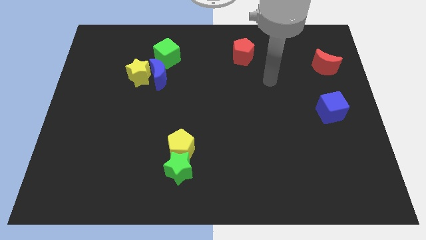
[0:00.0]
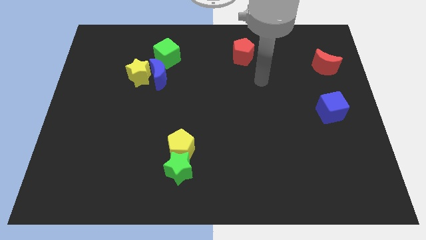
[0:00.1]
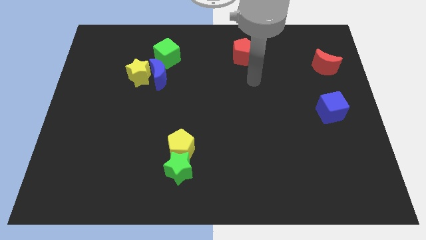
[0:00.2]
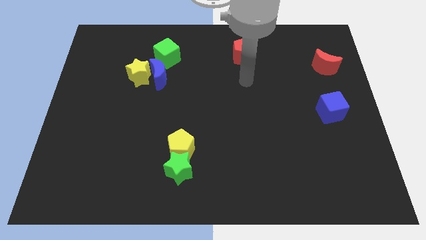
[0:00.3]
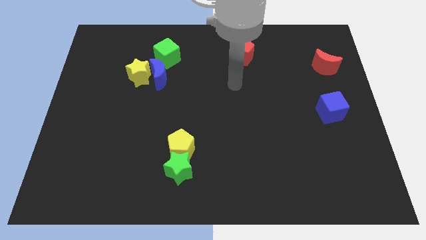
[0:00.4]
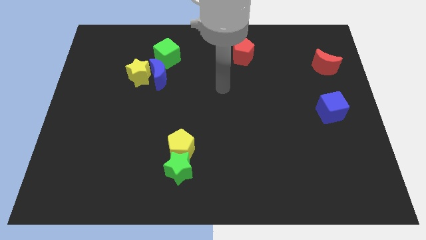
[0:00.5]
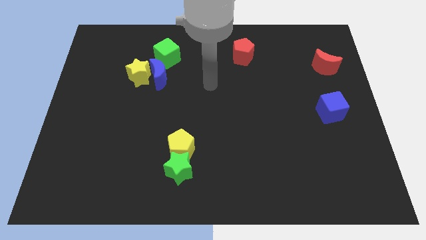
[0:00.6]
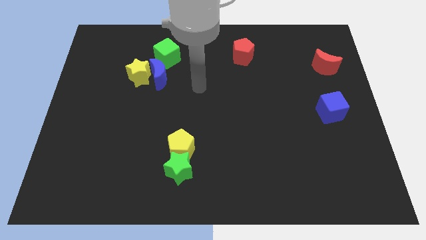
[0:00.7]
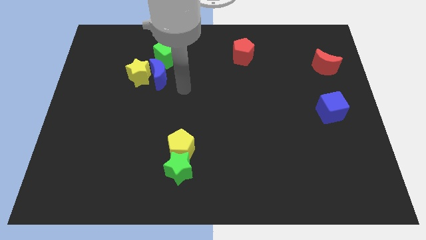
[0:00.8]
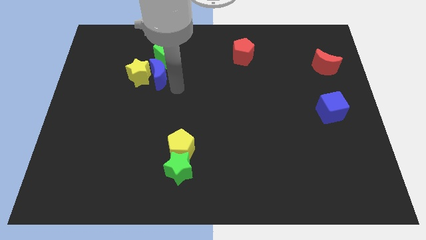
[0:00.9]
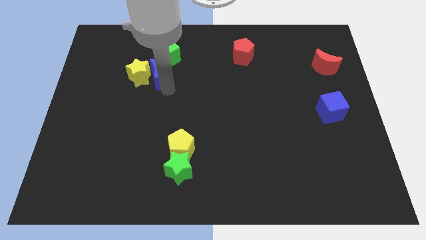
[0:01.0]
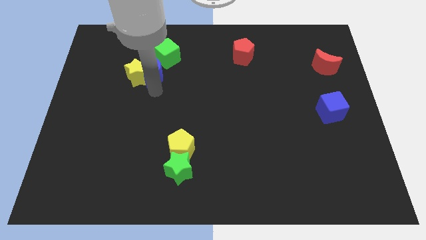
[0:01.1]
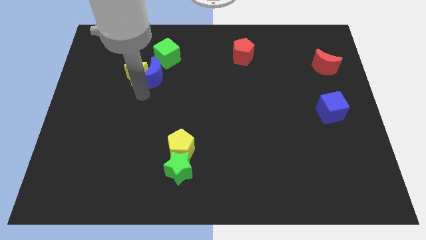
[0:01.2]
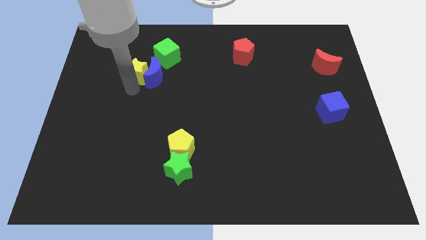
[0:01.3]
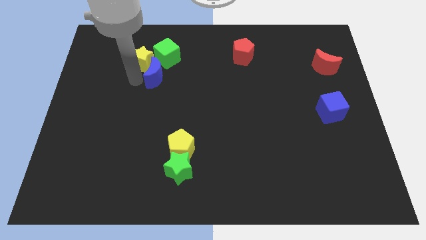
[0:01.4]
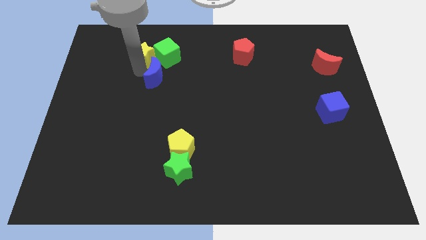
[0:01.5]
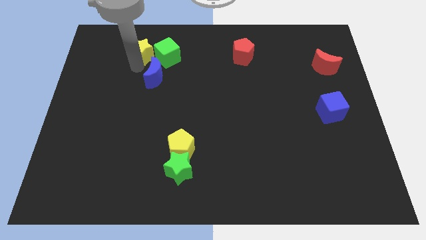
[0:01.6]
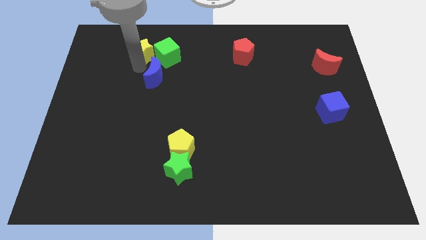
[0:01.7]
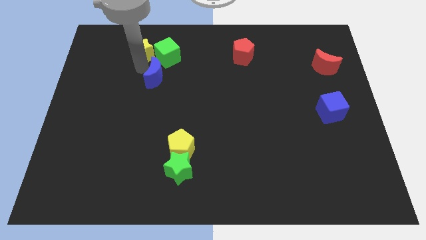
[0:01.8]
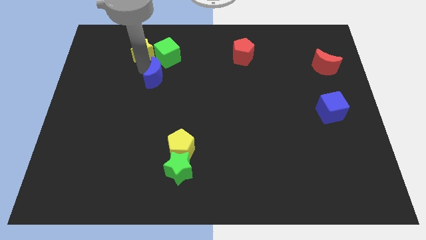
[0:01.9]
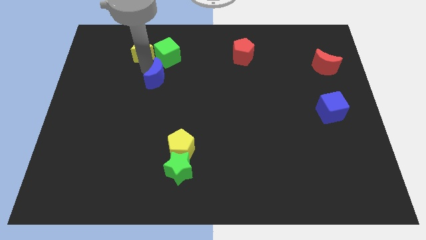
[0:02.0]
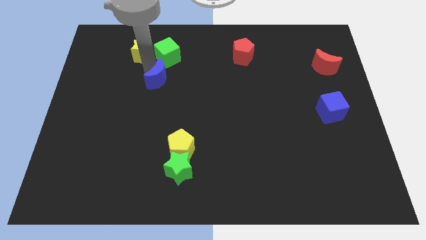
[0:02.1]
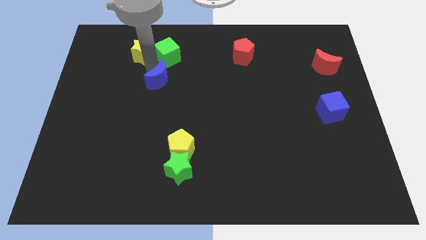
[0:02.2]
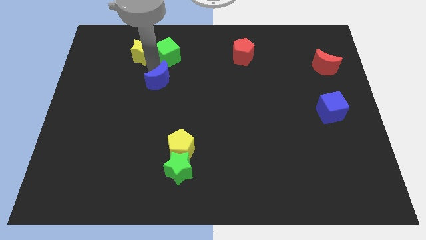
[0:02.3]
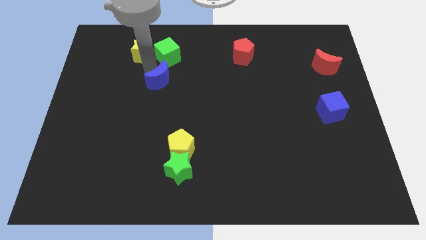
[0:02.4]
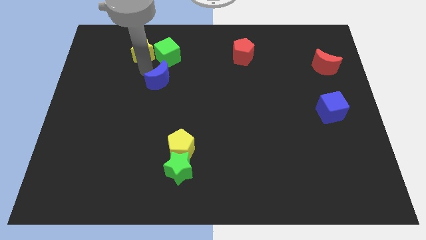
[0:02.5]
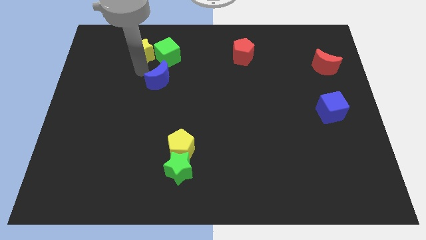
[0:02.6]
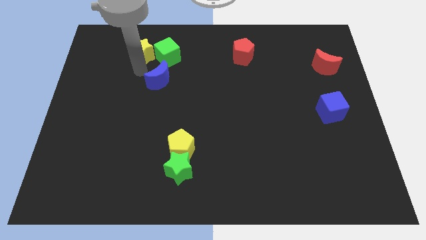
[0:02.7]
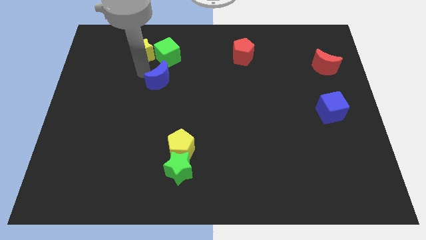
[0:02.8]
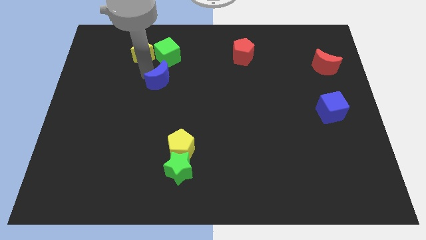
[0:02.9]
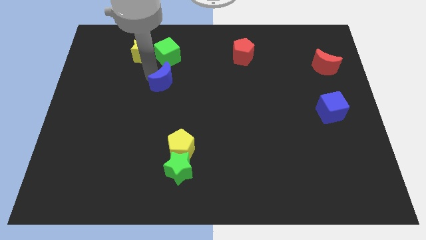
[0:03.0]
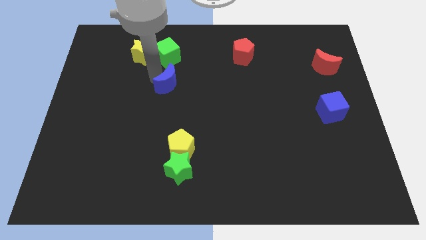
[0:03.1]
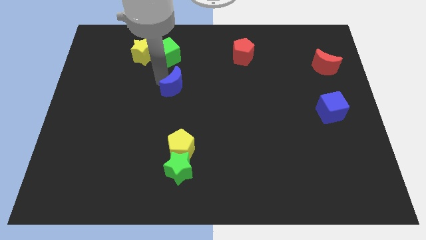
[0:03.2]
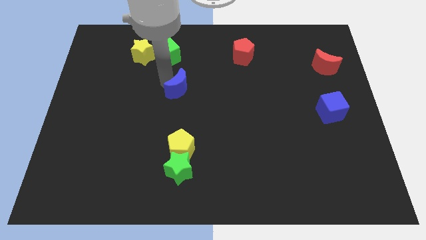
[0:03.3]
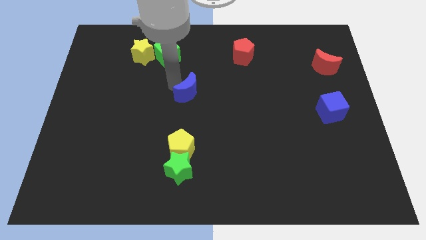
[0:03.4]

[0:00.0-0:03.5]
move the blue moon down and right diagonally a little bit

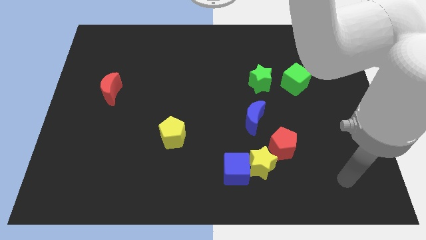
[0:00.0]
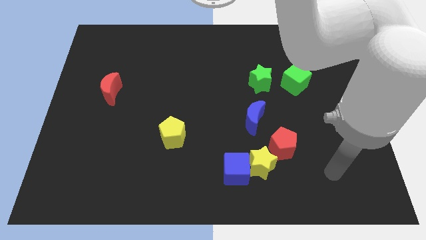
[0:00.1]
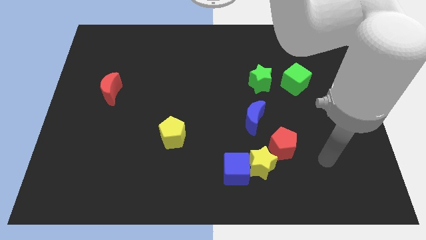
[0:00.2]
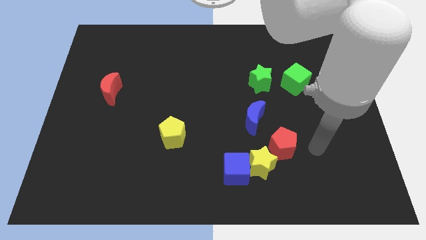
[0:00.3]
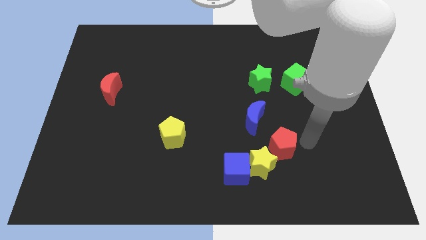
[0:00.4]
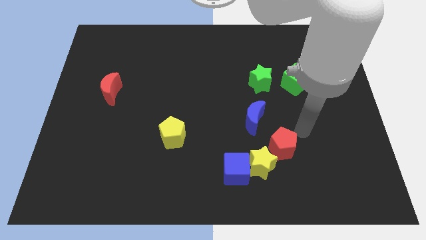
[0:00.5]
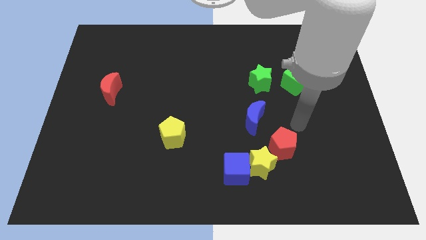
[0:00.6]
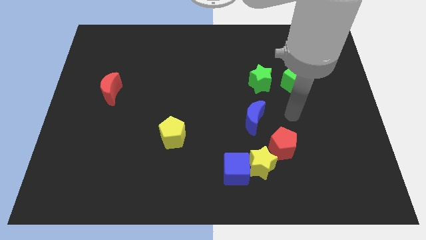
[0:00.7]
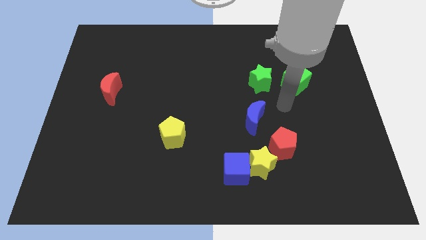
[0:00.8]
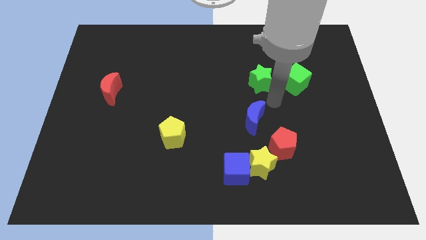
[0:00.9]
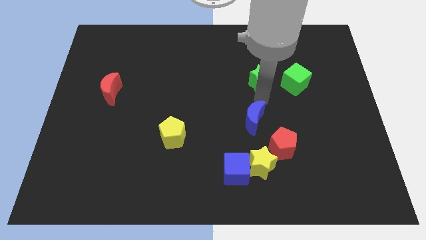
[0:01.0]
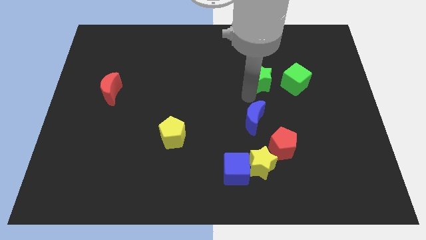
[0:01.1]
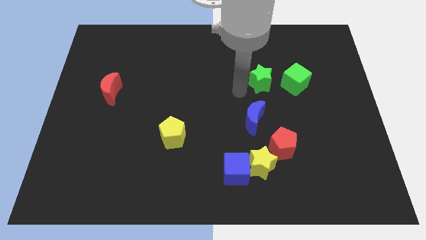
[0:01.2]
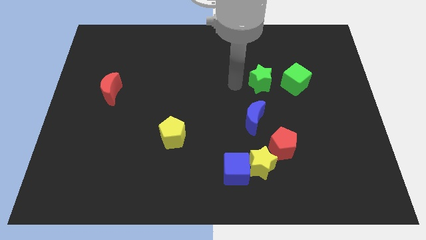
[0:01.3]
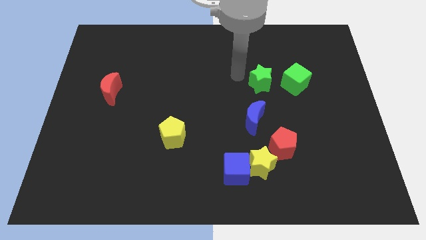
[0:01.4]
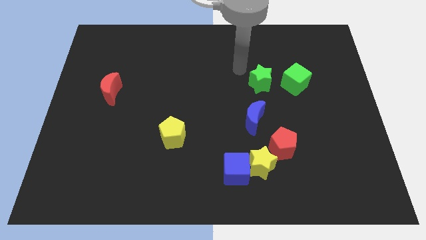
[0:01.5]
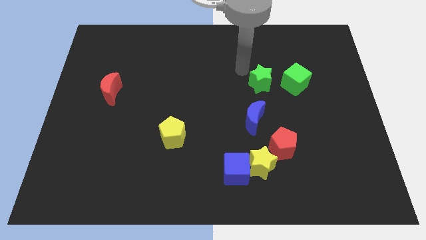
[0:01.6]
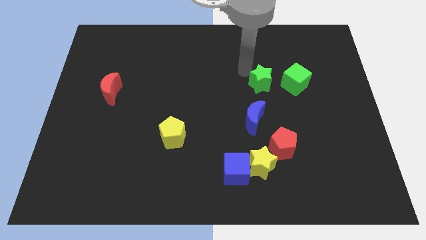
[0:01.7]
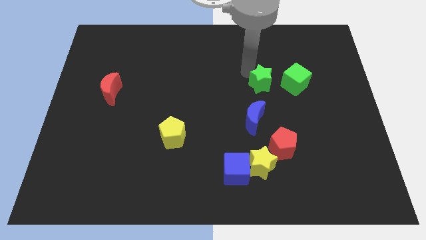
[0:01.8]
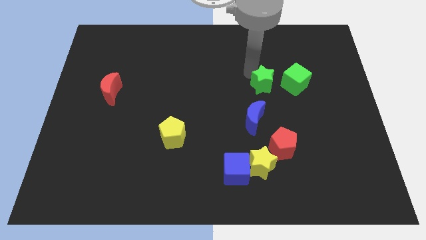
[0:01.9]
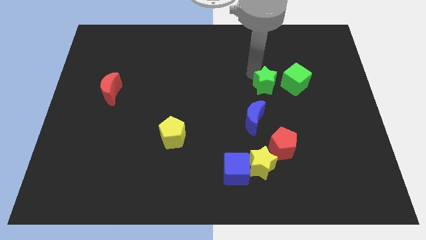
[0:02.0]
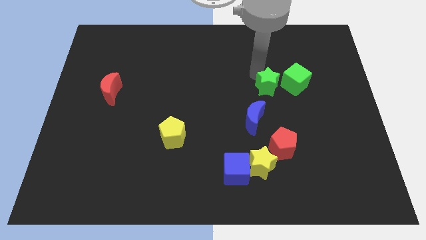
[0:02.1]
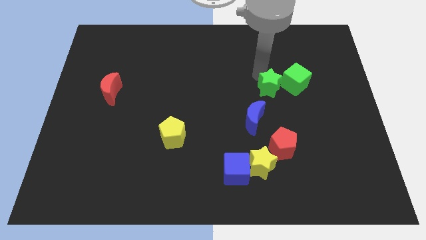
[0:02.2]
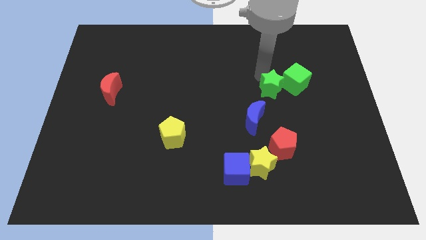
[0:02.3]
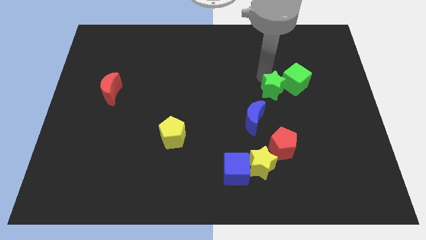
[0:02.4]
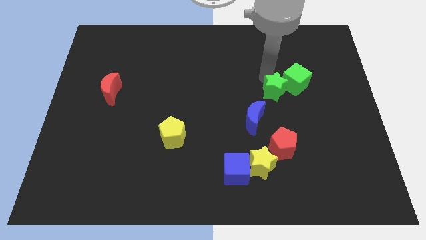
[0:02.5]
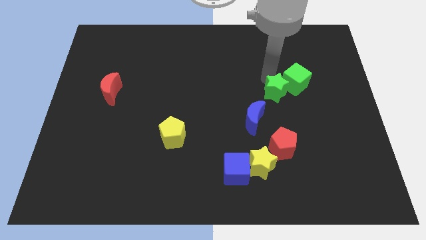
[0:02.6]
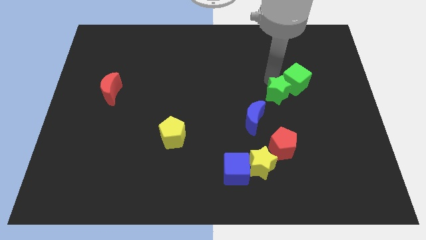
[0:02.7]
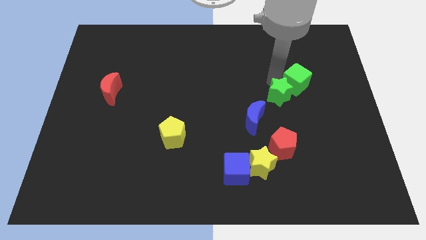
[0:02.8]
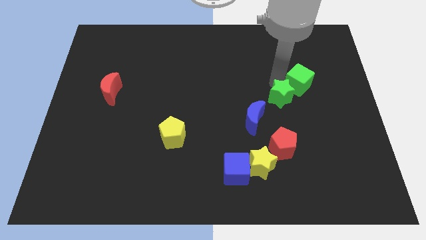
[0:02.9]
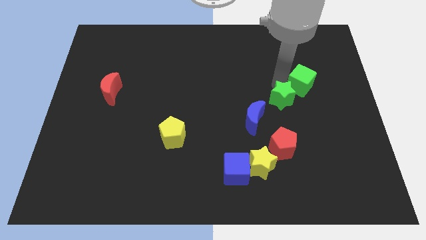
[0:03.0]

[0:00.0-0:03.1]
slightly move the green star diagonally downwards and right

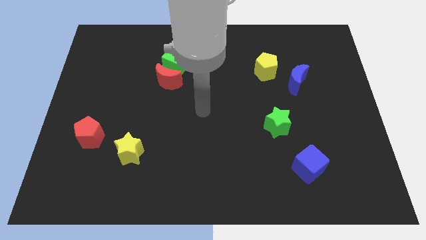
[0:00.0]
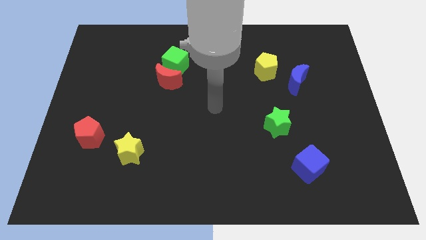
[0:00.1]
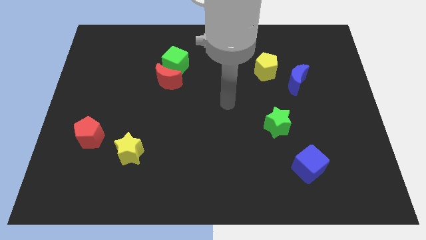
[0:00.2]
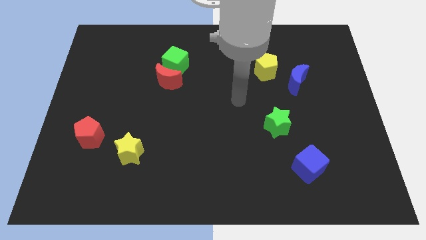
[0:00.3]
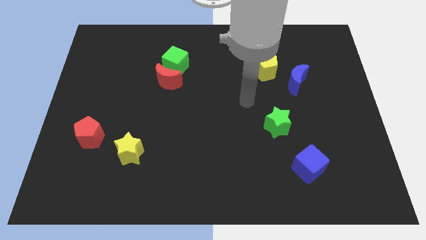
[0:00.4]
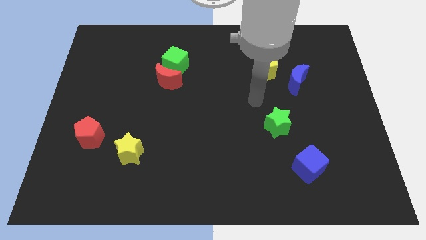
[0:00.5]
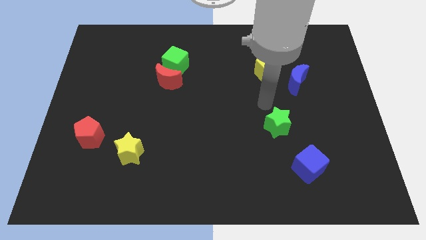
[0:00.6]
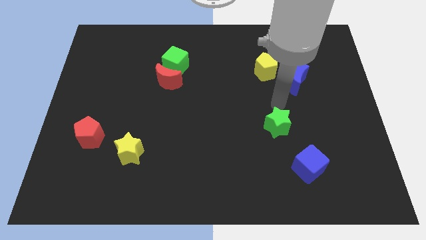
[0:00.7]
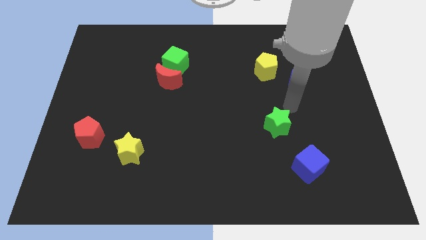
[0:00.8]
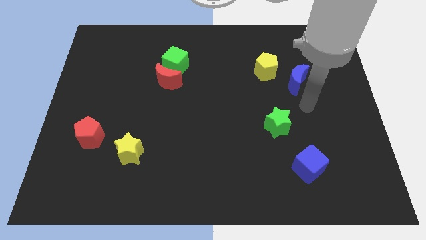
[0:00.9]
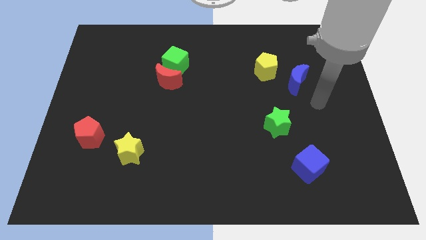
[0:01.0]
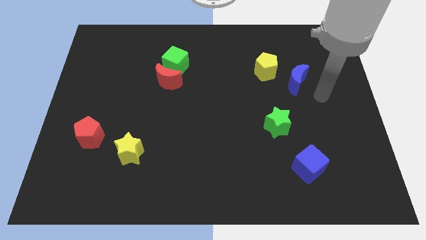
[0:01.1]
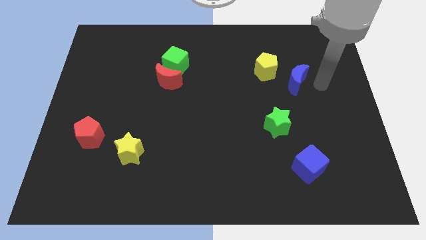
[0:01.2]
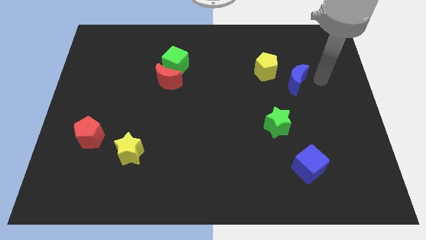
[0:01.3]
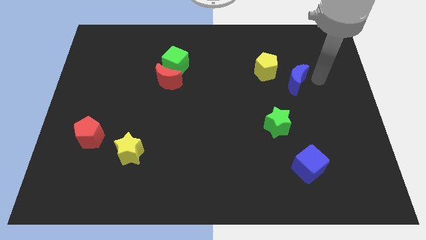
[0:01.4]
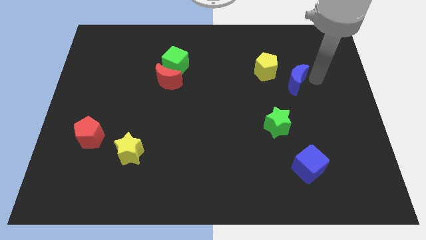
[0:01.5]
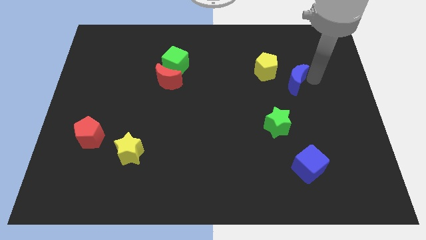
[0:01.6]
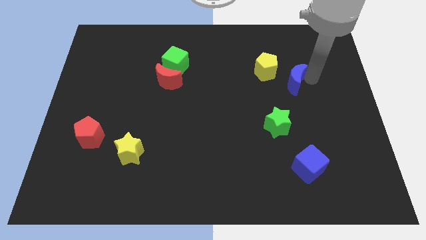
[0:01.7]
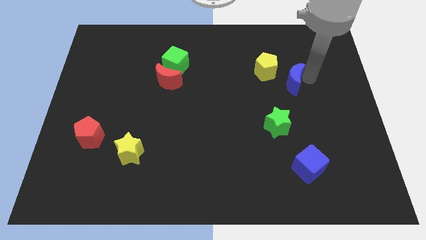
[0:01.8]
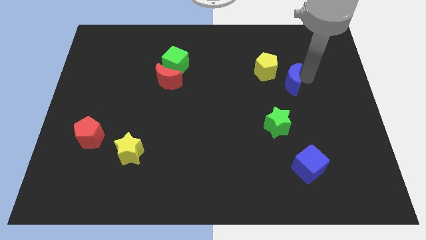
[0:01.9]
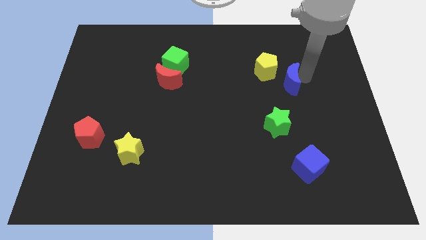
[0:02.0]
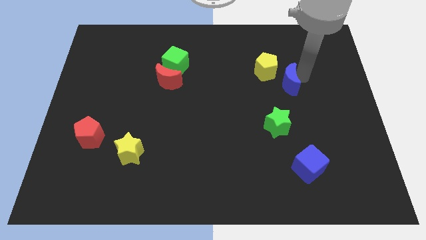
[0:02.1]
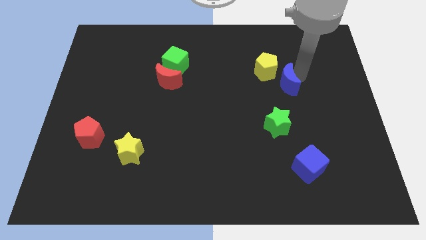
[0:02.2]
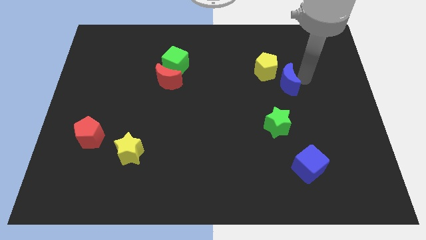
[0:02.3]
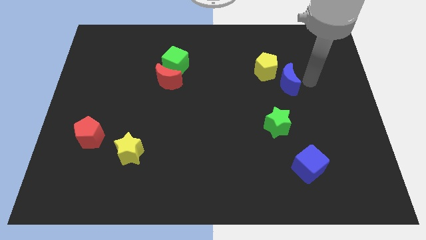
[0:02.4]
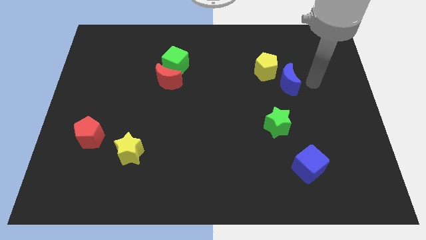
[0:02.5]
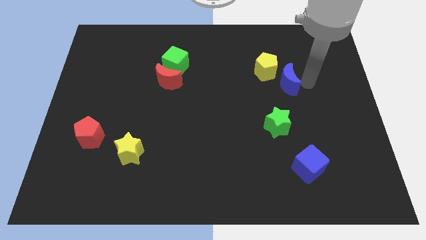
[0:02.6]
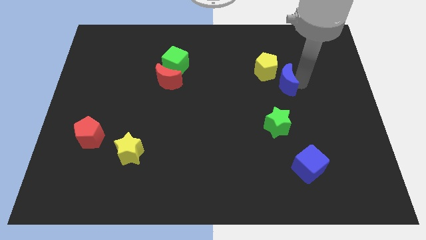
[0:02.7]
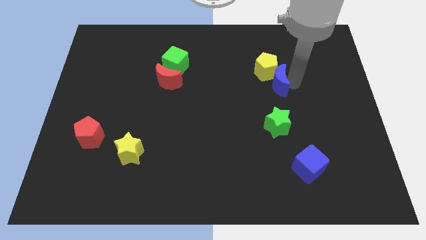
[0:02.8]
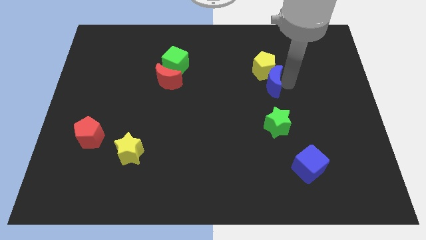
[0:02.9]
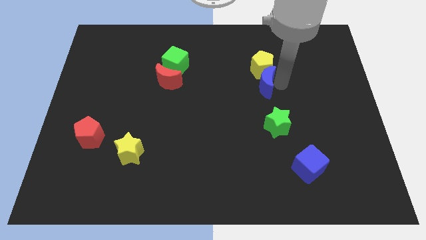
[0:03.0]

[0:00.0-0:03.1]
slide the blue moon somewhat left
